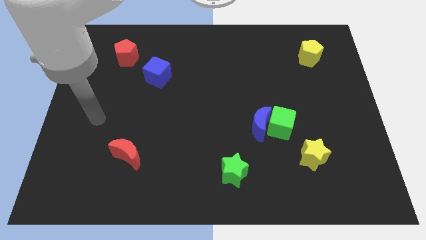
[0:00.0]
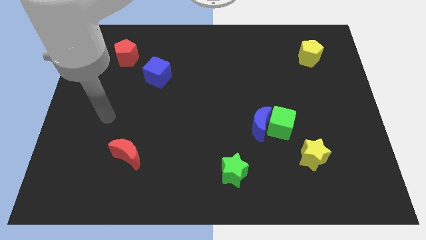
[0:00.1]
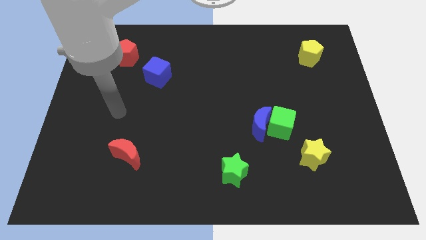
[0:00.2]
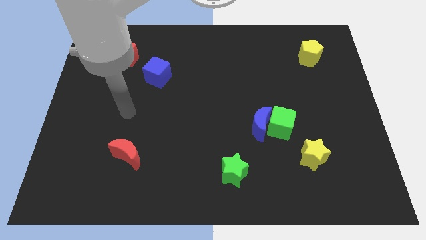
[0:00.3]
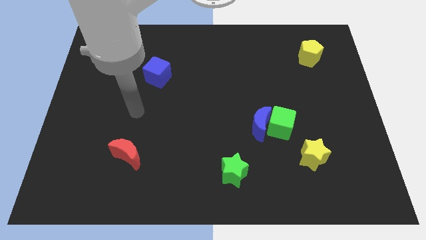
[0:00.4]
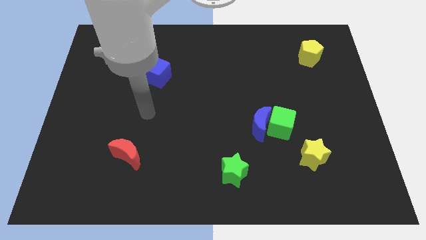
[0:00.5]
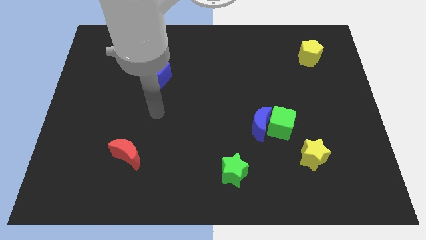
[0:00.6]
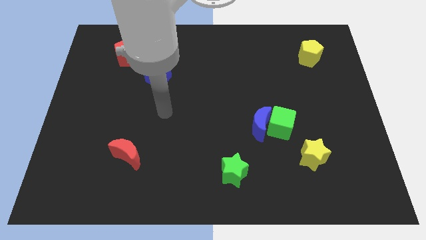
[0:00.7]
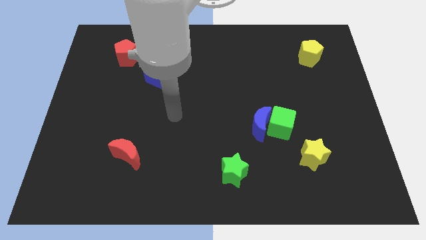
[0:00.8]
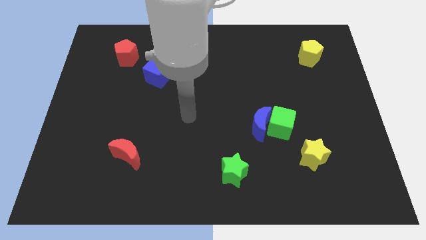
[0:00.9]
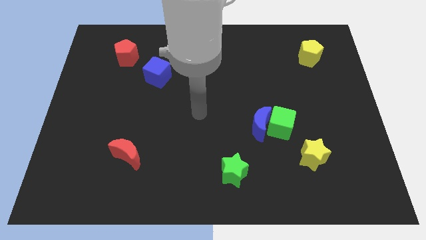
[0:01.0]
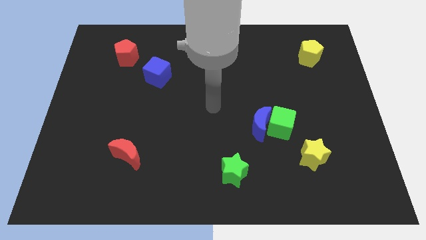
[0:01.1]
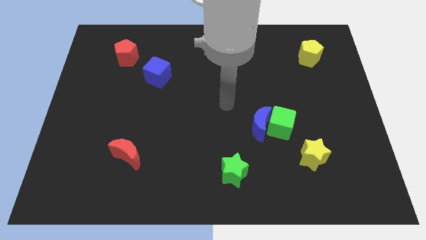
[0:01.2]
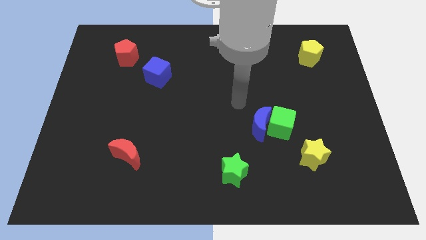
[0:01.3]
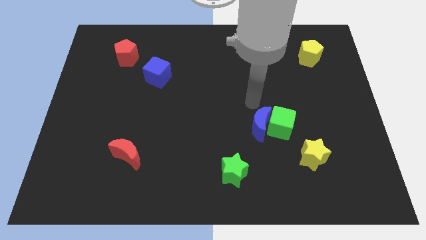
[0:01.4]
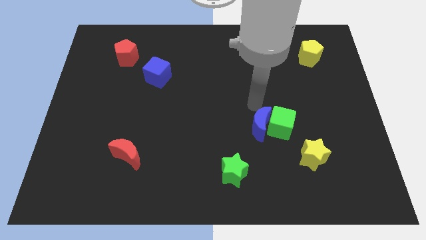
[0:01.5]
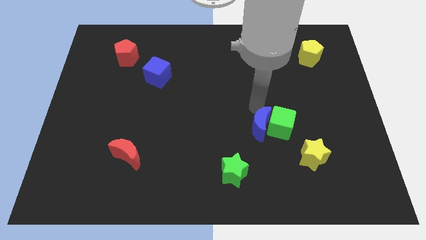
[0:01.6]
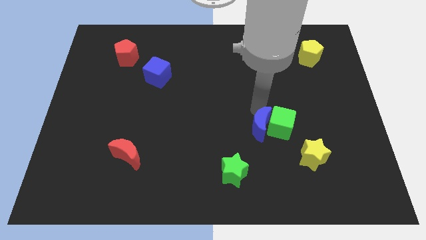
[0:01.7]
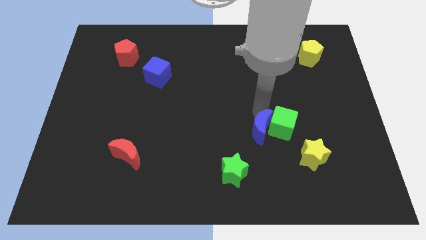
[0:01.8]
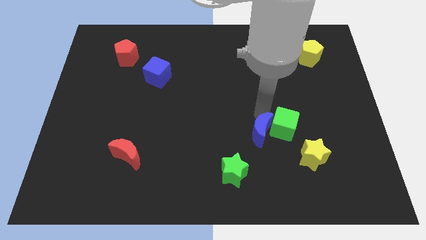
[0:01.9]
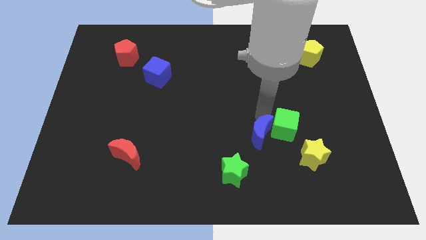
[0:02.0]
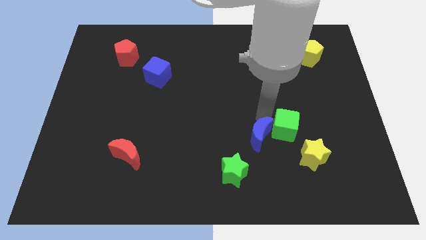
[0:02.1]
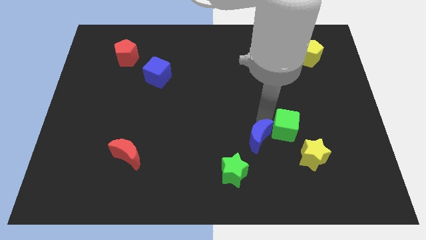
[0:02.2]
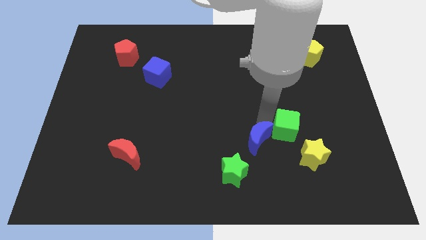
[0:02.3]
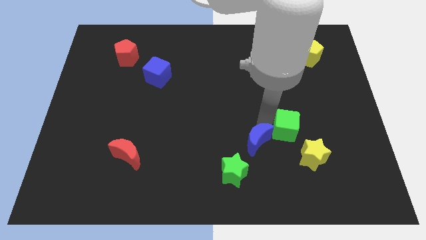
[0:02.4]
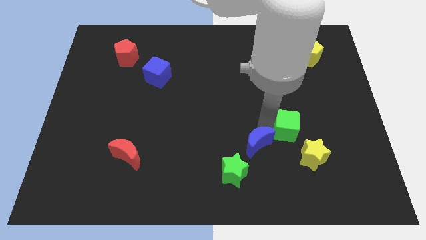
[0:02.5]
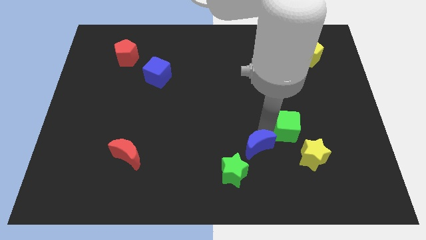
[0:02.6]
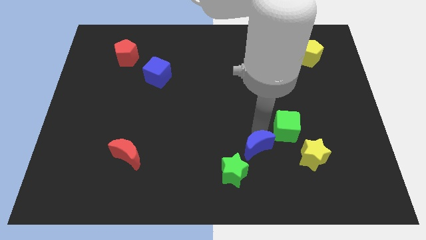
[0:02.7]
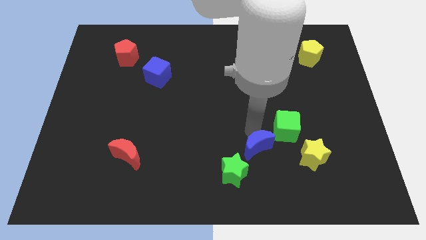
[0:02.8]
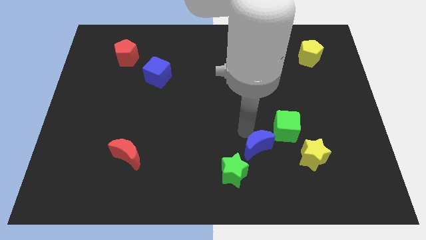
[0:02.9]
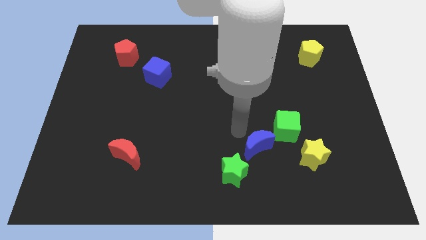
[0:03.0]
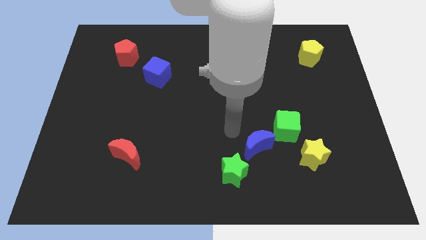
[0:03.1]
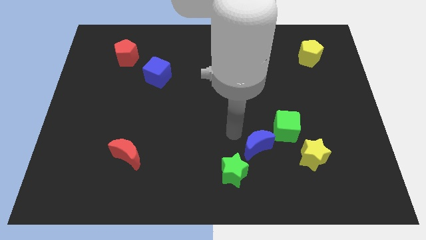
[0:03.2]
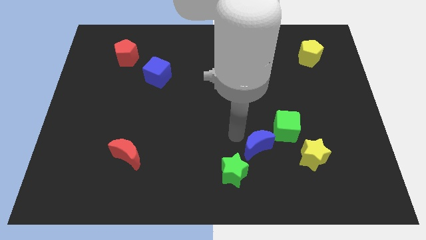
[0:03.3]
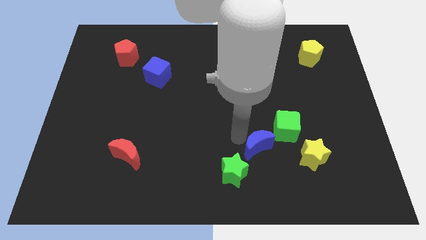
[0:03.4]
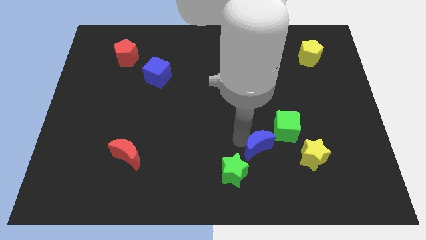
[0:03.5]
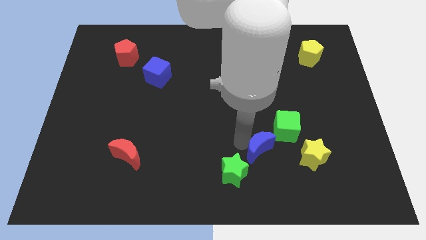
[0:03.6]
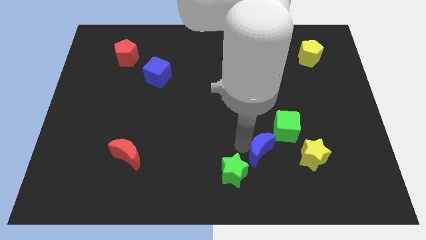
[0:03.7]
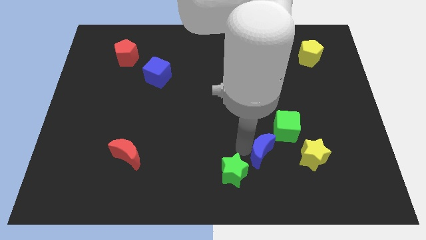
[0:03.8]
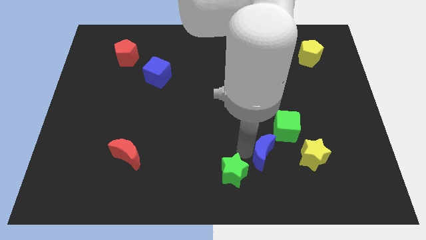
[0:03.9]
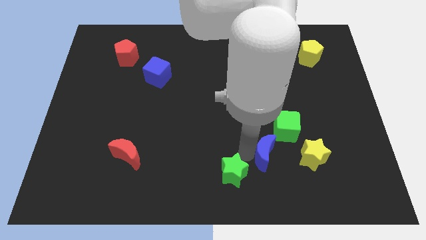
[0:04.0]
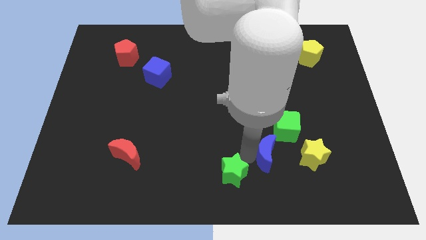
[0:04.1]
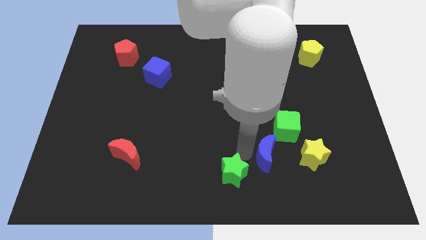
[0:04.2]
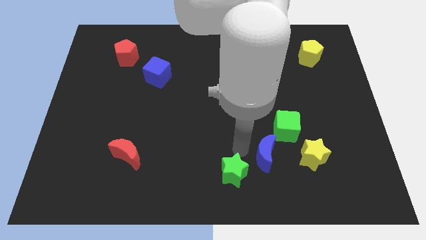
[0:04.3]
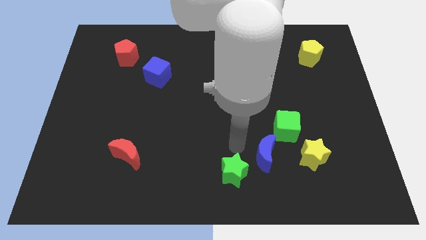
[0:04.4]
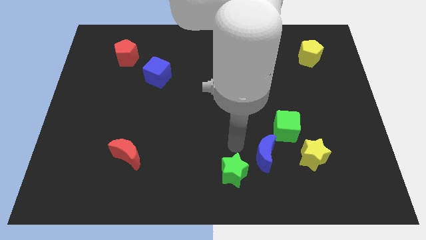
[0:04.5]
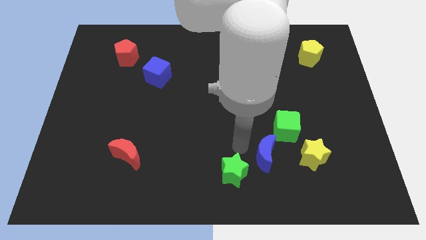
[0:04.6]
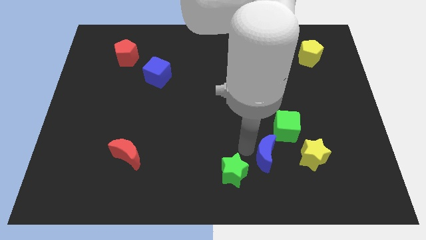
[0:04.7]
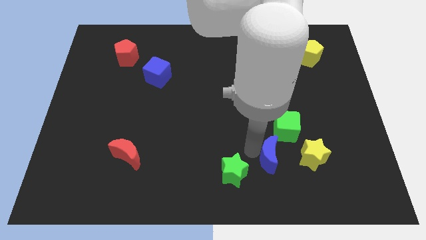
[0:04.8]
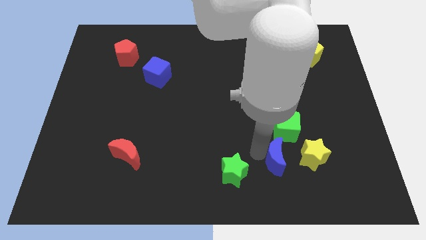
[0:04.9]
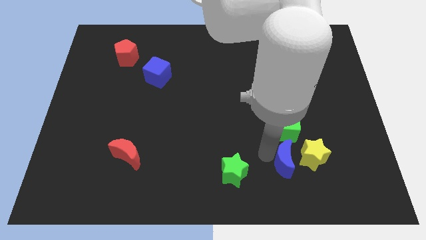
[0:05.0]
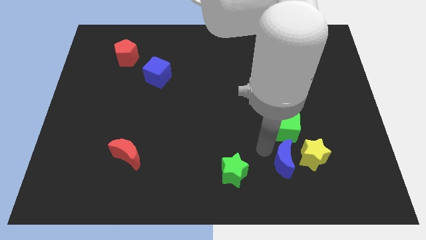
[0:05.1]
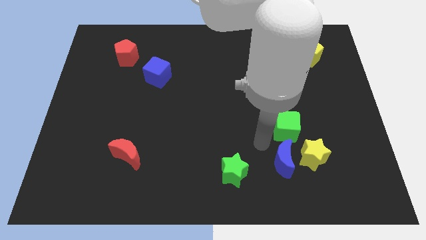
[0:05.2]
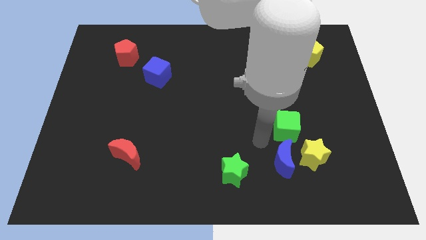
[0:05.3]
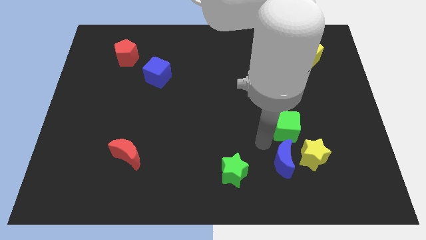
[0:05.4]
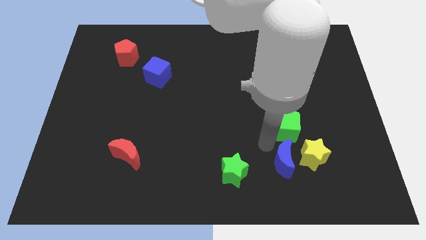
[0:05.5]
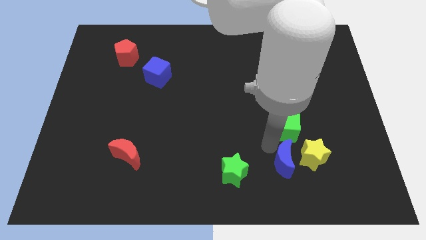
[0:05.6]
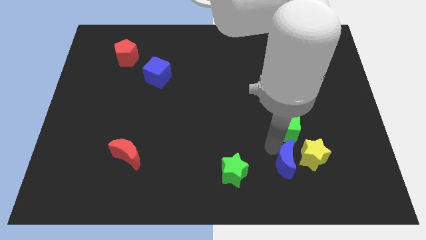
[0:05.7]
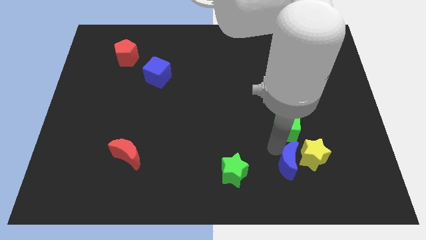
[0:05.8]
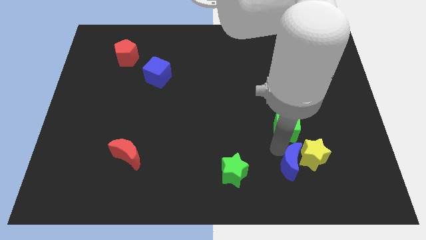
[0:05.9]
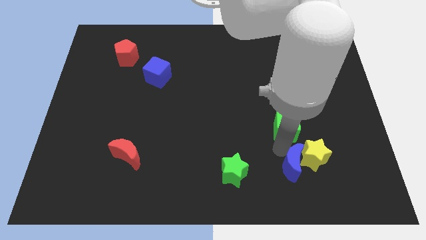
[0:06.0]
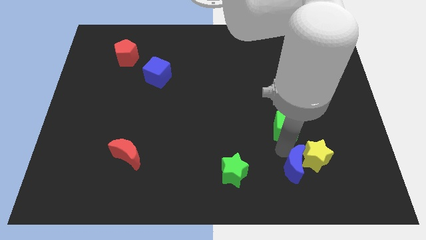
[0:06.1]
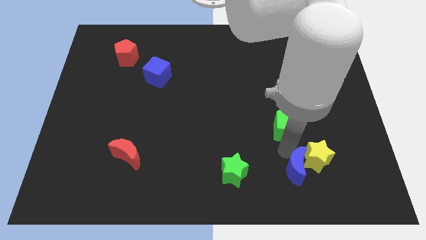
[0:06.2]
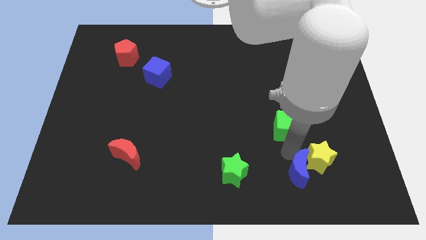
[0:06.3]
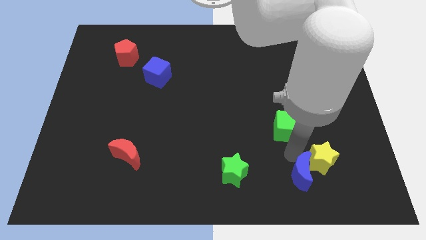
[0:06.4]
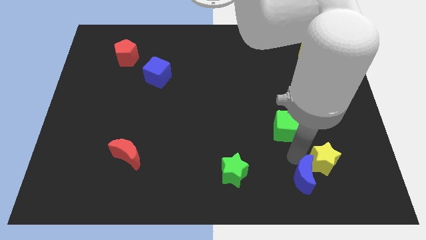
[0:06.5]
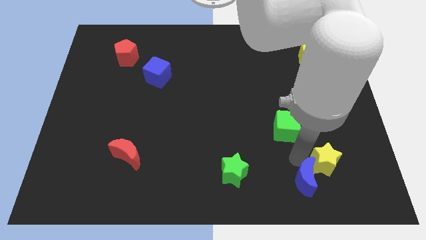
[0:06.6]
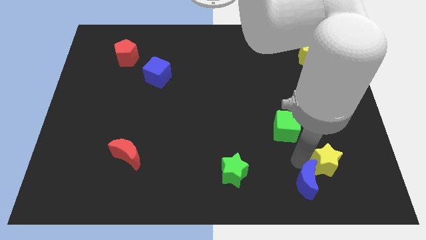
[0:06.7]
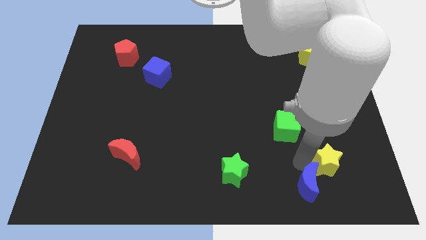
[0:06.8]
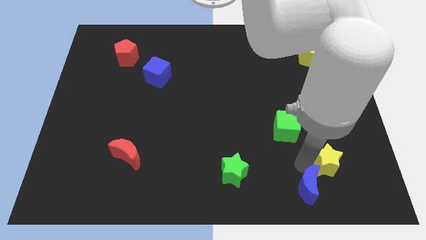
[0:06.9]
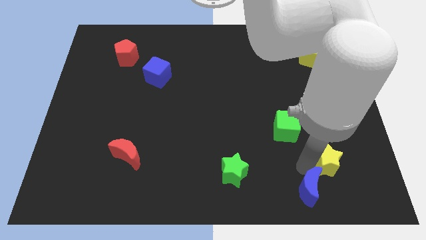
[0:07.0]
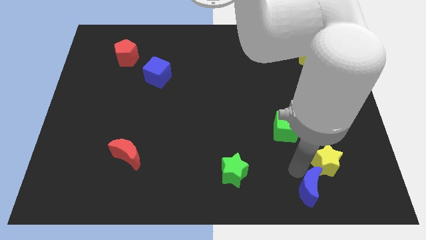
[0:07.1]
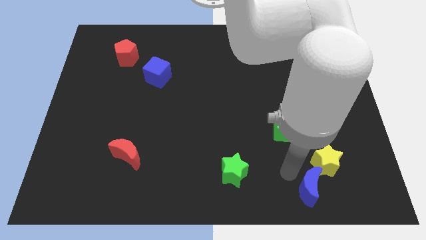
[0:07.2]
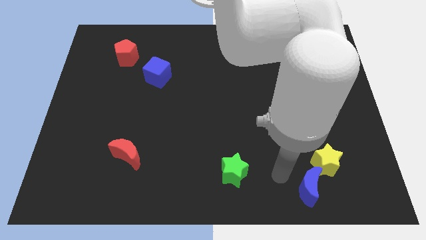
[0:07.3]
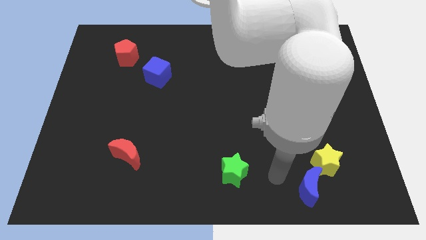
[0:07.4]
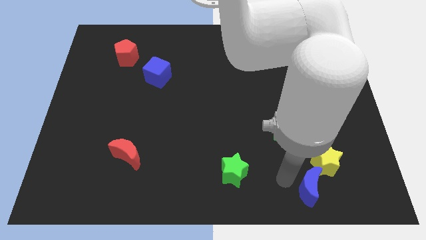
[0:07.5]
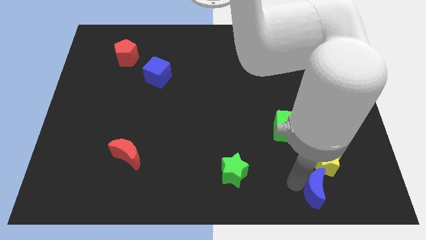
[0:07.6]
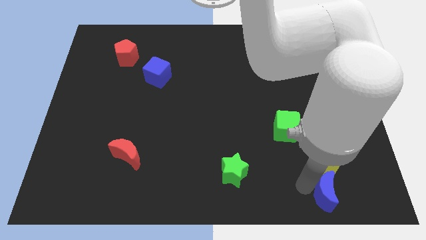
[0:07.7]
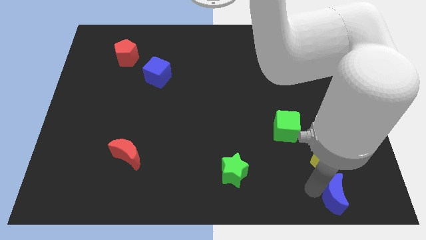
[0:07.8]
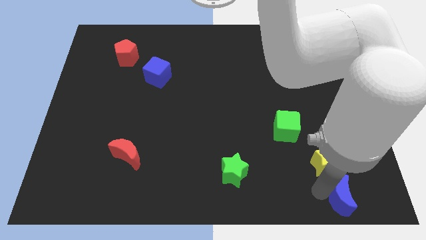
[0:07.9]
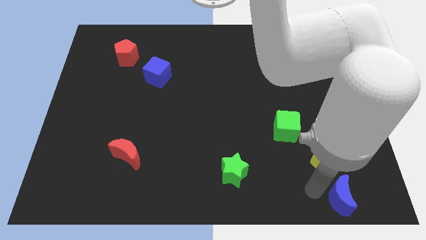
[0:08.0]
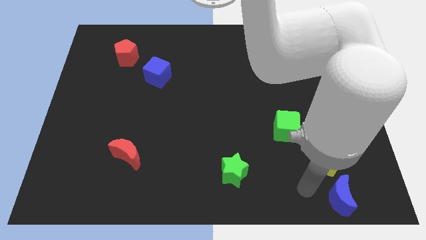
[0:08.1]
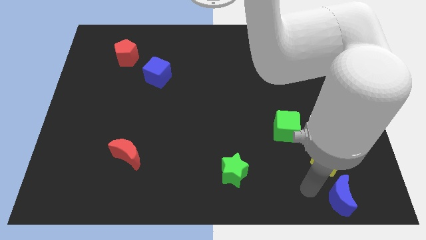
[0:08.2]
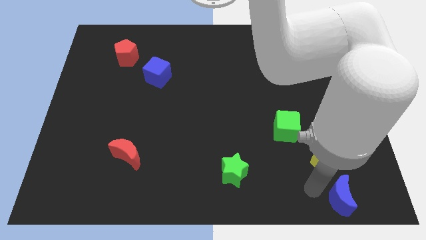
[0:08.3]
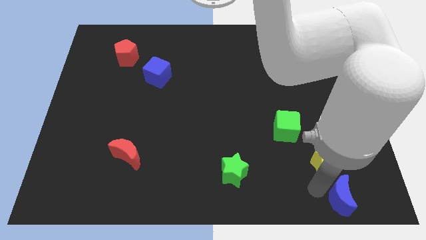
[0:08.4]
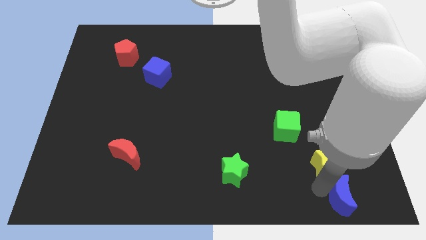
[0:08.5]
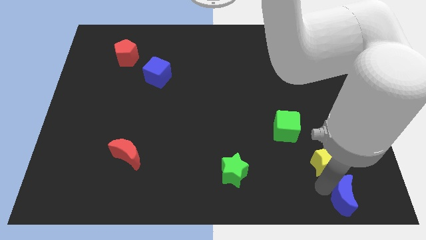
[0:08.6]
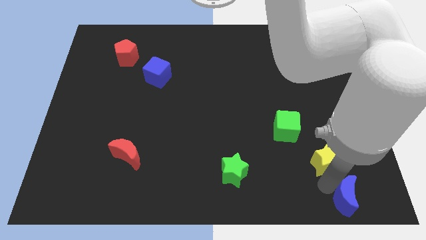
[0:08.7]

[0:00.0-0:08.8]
push the blue moon to the lower right corner
